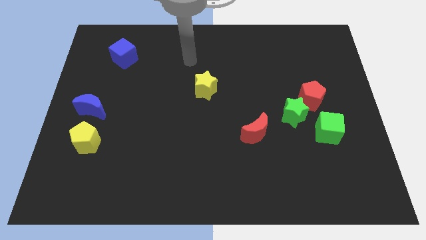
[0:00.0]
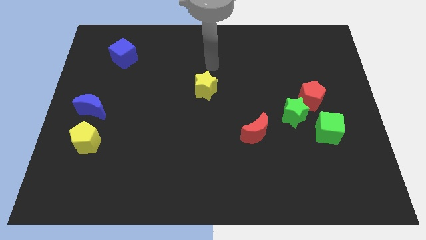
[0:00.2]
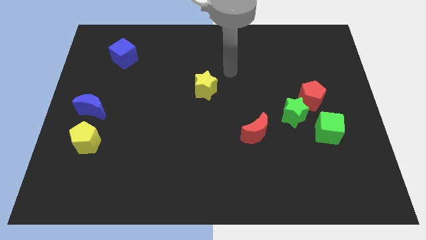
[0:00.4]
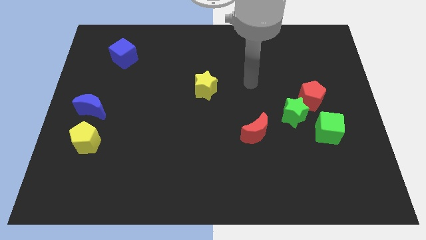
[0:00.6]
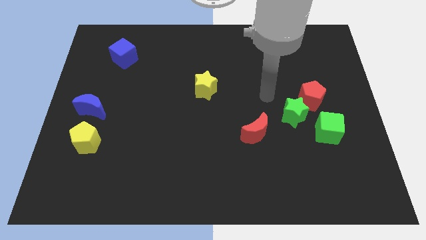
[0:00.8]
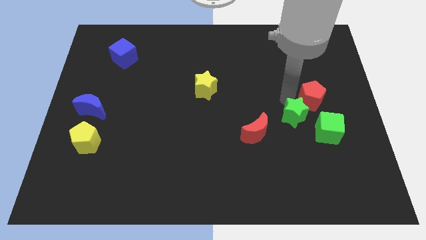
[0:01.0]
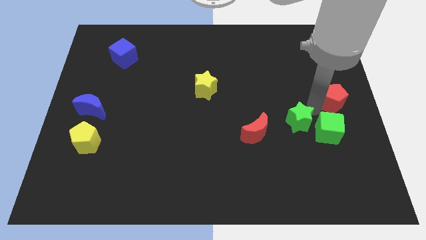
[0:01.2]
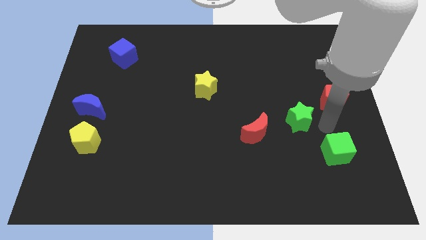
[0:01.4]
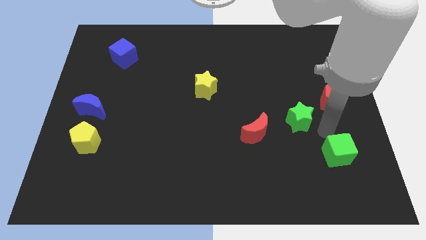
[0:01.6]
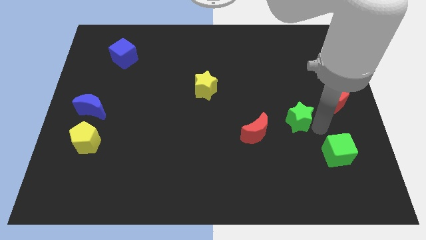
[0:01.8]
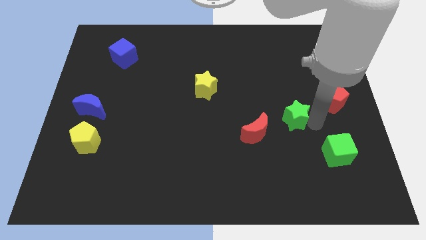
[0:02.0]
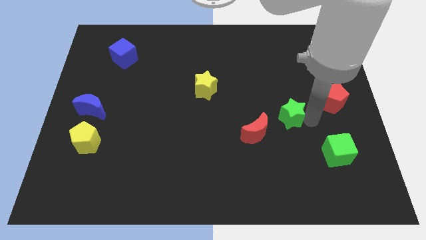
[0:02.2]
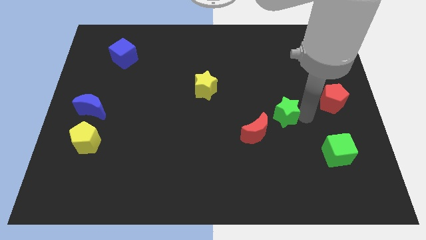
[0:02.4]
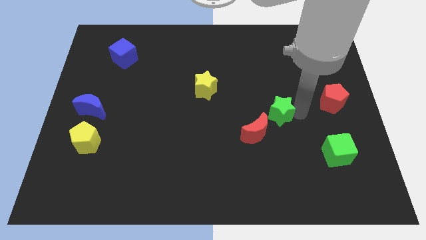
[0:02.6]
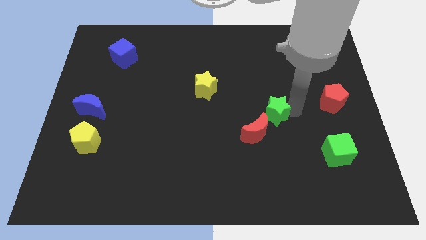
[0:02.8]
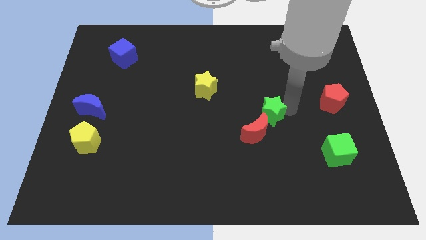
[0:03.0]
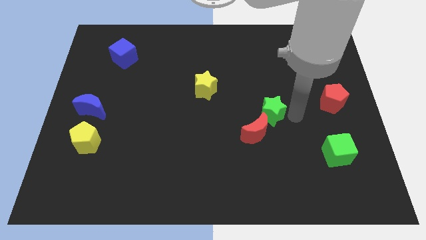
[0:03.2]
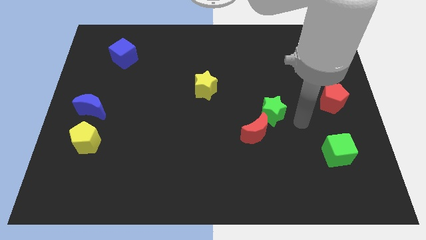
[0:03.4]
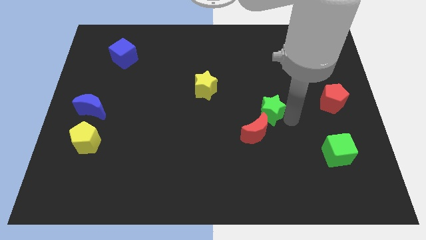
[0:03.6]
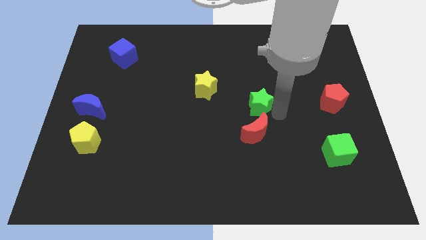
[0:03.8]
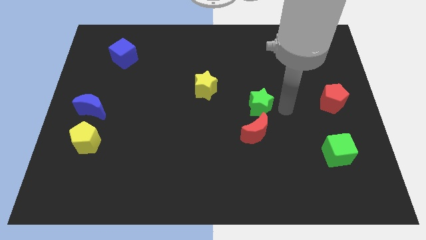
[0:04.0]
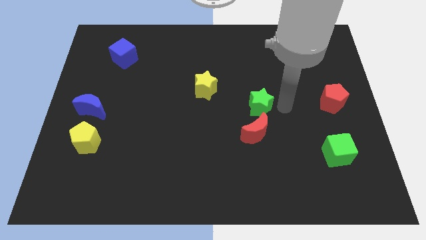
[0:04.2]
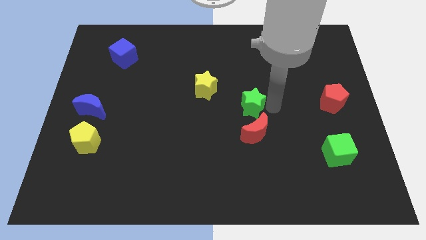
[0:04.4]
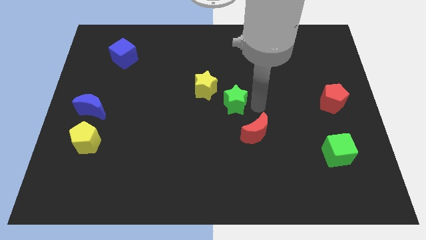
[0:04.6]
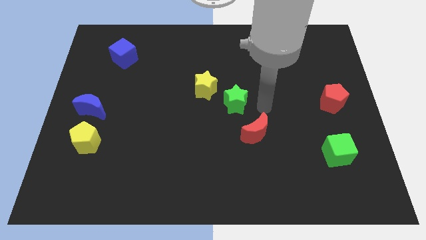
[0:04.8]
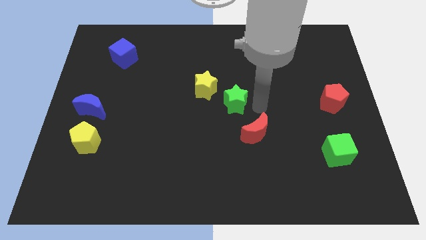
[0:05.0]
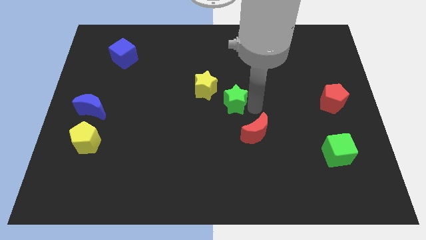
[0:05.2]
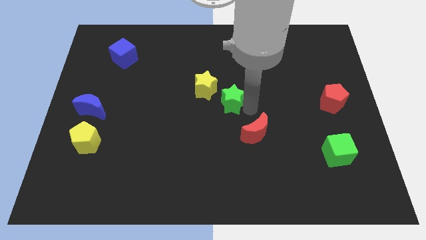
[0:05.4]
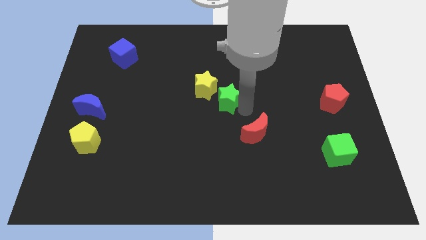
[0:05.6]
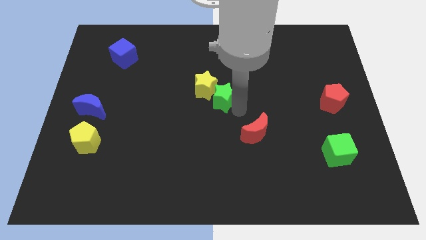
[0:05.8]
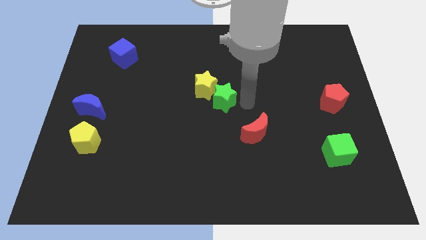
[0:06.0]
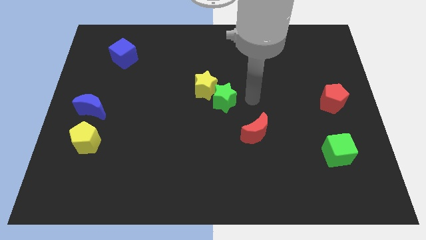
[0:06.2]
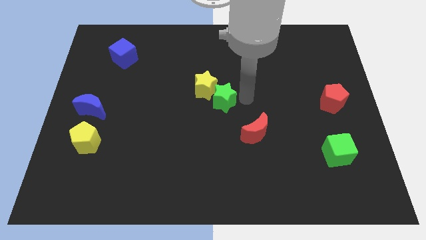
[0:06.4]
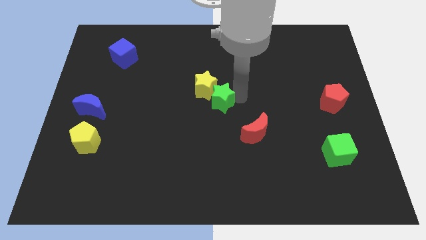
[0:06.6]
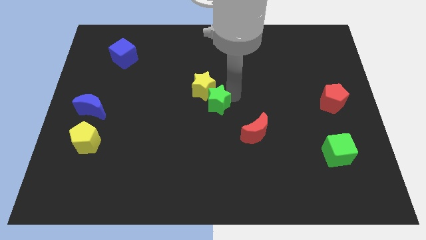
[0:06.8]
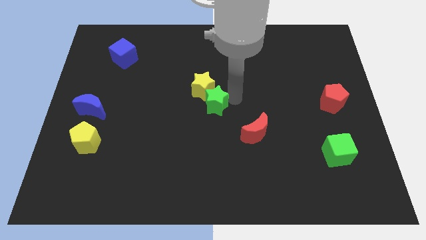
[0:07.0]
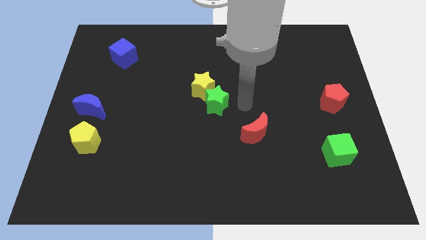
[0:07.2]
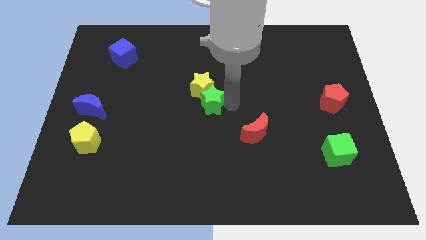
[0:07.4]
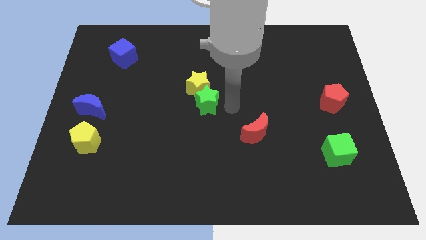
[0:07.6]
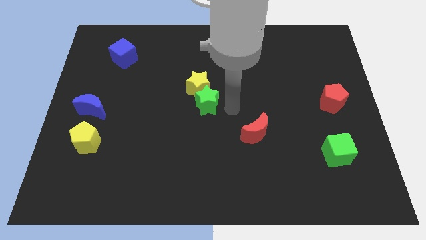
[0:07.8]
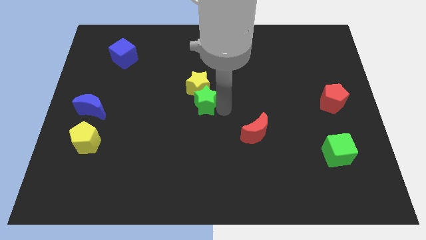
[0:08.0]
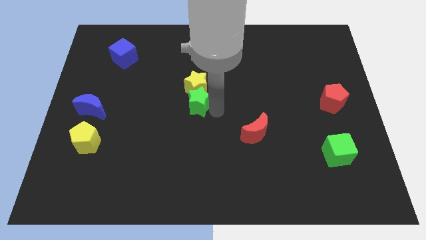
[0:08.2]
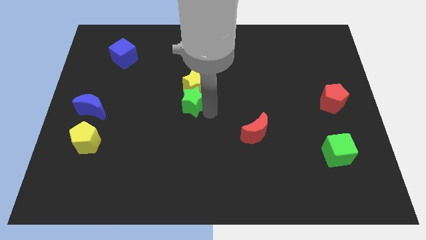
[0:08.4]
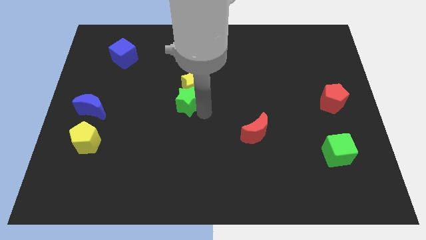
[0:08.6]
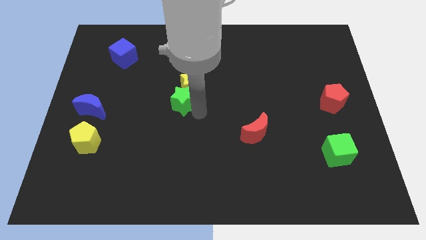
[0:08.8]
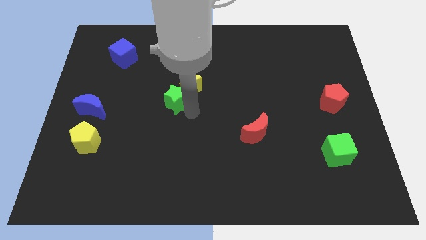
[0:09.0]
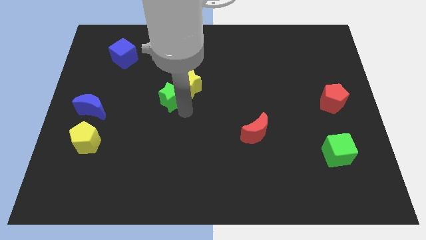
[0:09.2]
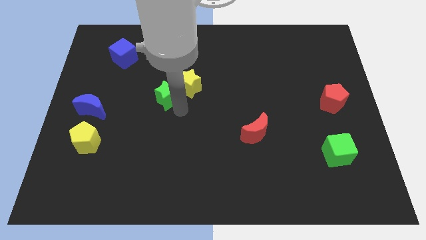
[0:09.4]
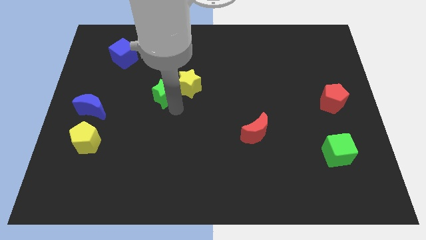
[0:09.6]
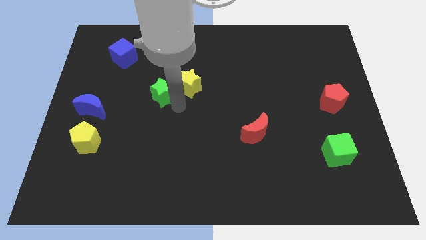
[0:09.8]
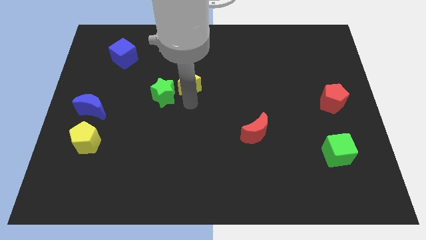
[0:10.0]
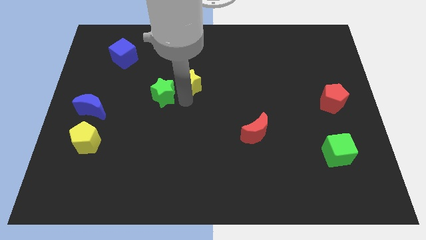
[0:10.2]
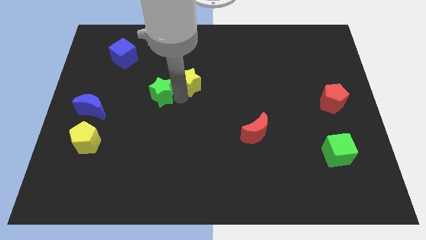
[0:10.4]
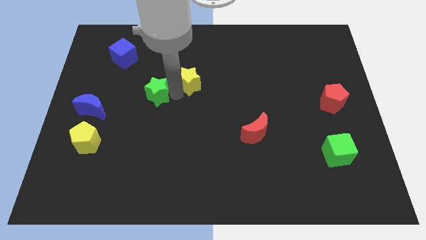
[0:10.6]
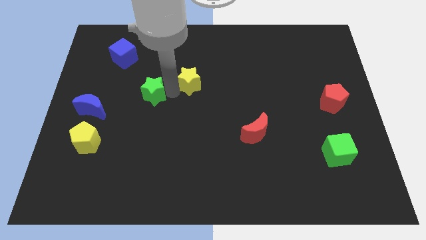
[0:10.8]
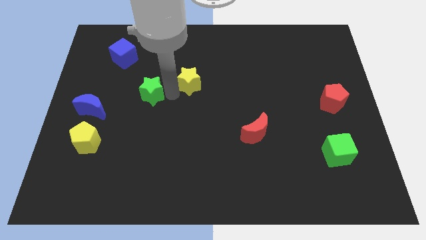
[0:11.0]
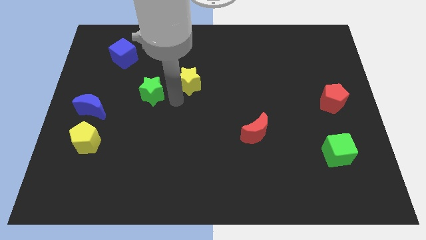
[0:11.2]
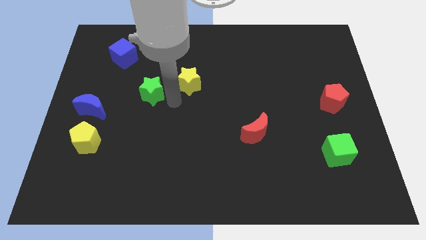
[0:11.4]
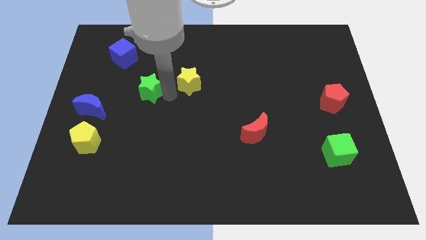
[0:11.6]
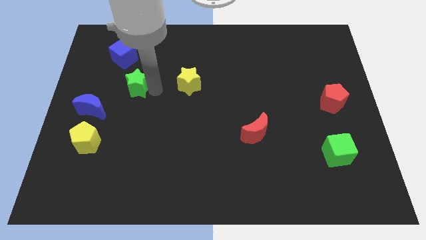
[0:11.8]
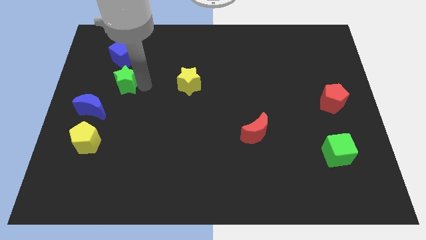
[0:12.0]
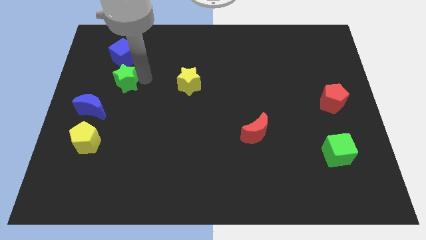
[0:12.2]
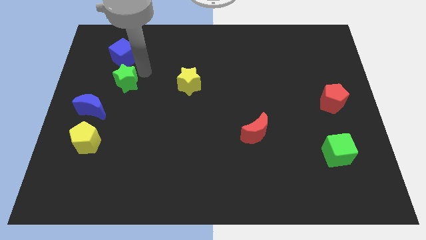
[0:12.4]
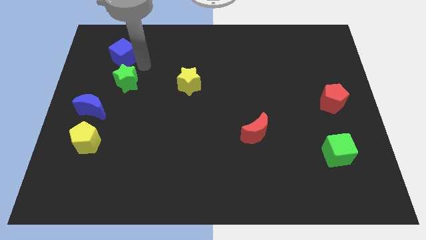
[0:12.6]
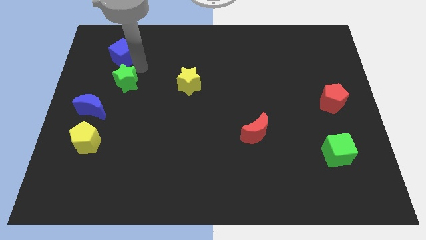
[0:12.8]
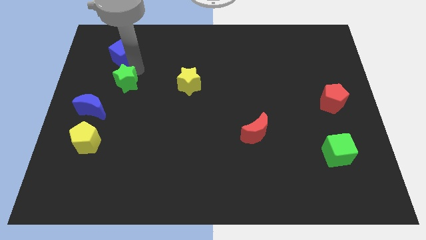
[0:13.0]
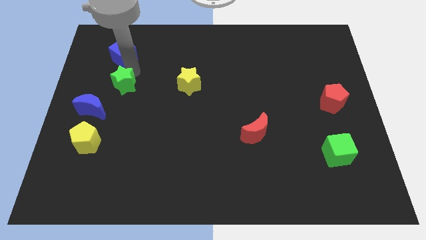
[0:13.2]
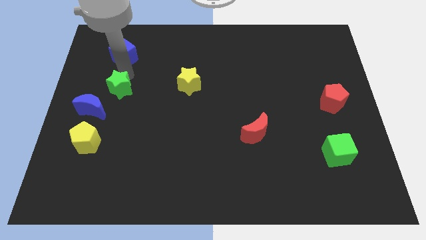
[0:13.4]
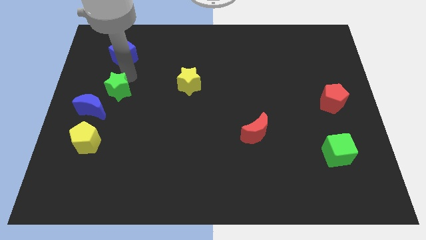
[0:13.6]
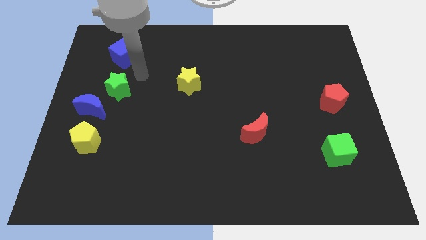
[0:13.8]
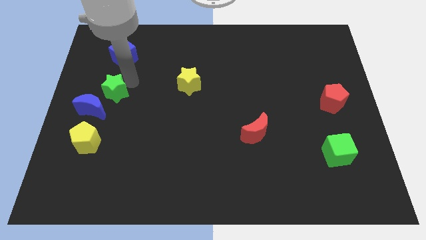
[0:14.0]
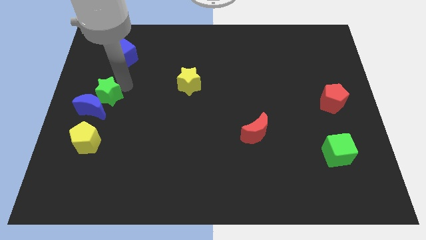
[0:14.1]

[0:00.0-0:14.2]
put the green star to the top of the yellow pentagon

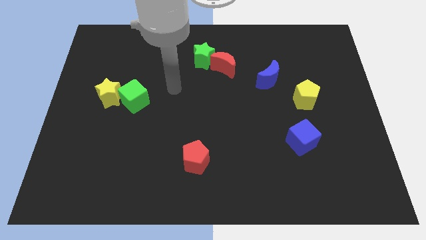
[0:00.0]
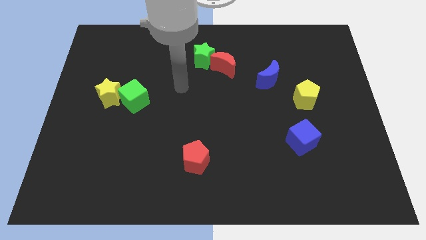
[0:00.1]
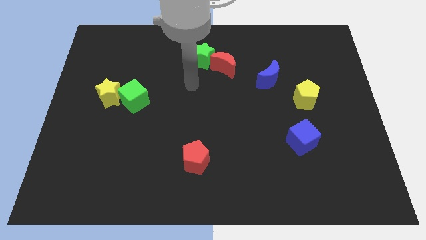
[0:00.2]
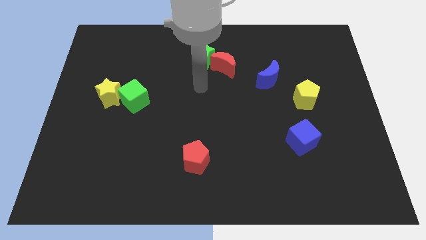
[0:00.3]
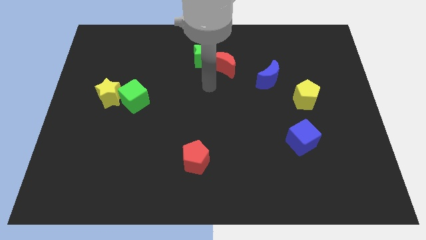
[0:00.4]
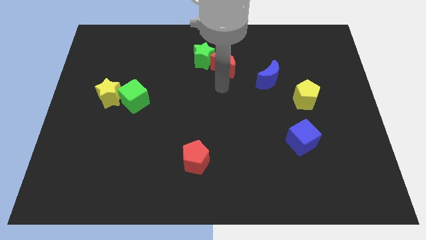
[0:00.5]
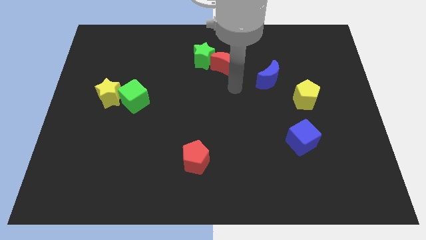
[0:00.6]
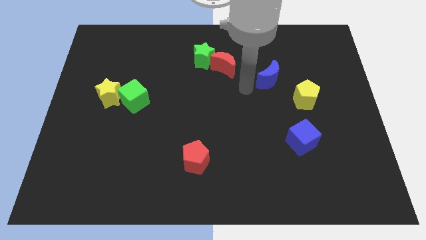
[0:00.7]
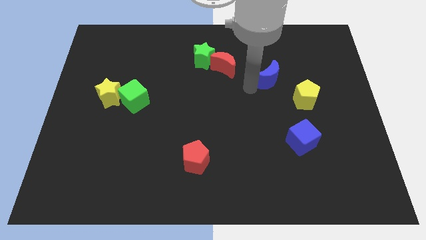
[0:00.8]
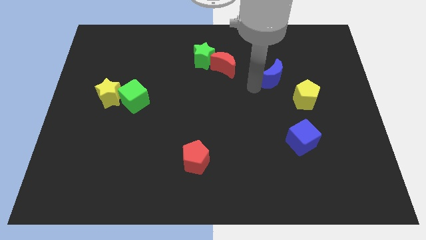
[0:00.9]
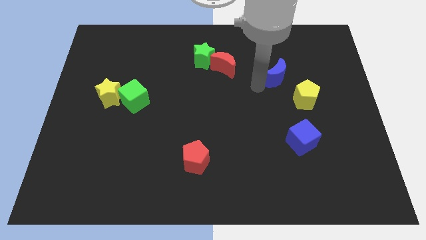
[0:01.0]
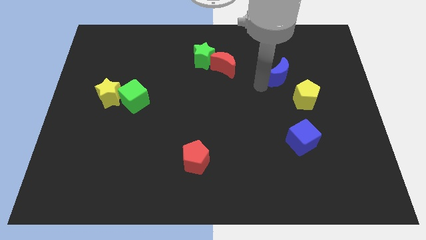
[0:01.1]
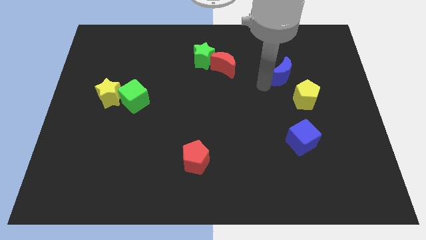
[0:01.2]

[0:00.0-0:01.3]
push the blue moon to the top of the yellow pentagon
